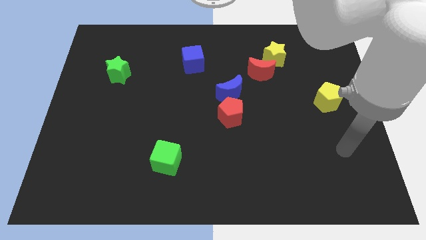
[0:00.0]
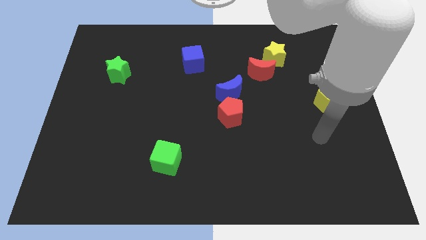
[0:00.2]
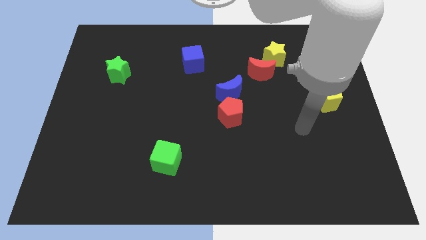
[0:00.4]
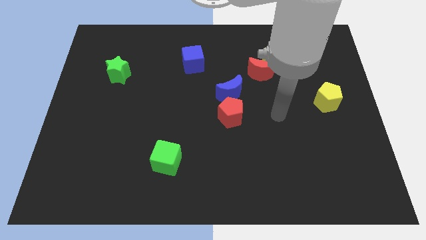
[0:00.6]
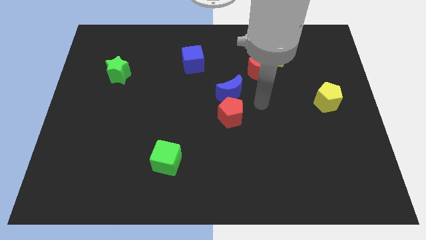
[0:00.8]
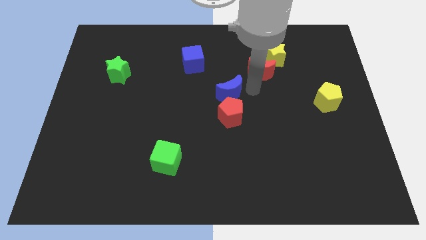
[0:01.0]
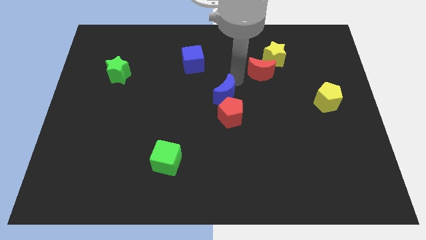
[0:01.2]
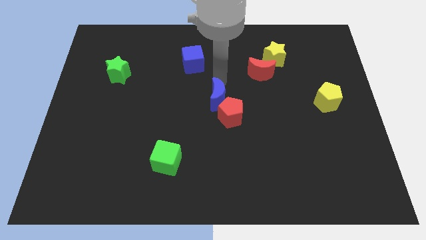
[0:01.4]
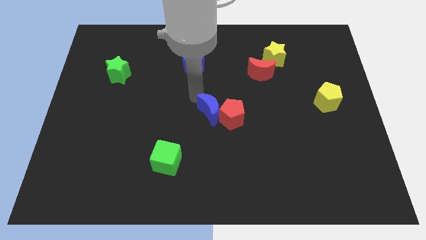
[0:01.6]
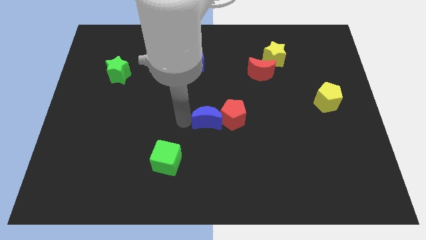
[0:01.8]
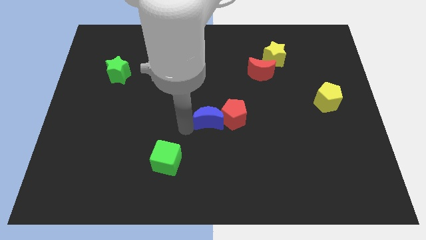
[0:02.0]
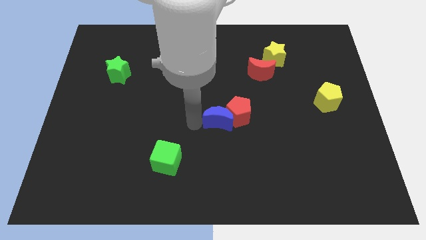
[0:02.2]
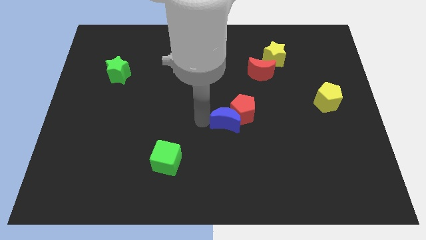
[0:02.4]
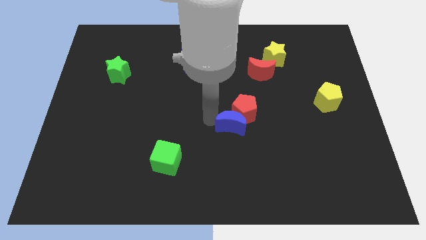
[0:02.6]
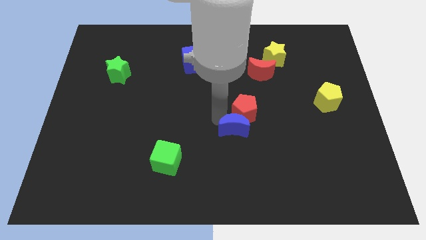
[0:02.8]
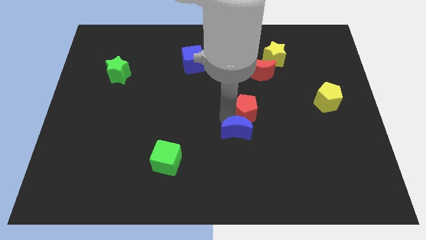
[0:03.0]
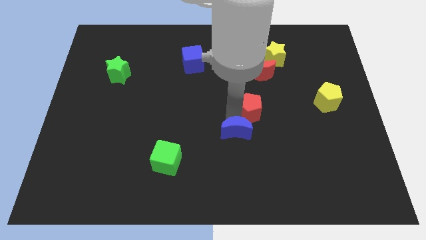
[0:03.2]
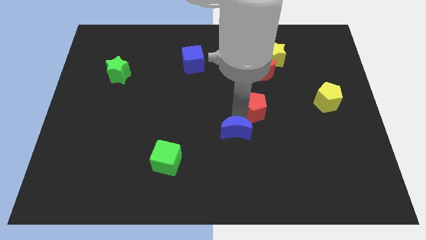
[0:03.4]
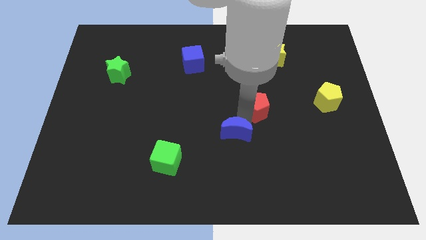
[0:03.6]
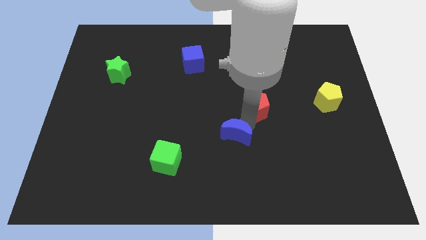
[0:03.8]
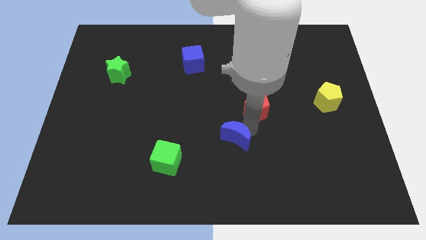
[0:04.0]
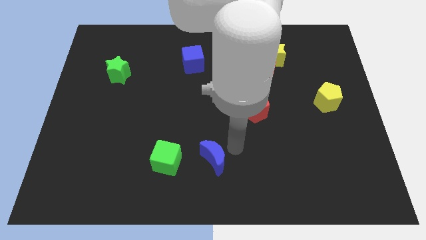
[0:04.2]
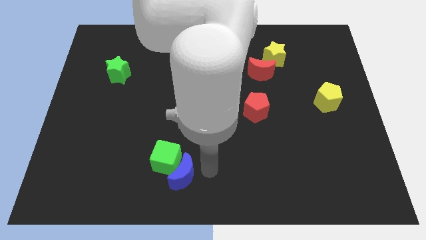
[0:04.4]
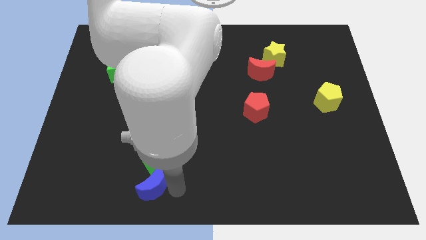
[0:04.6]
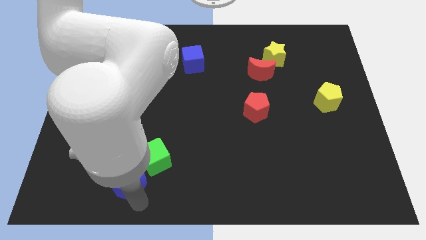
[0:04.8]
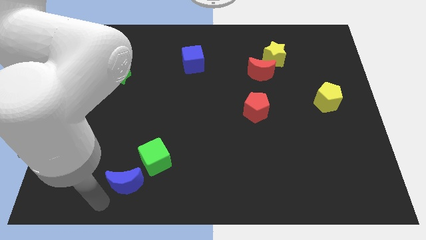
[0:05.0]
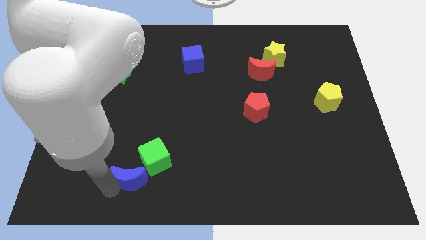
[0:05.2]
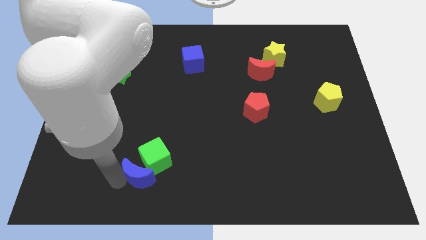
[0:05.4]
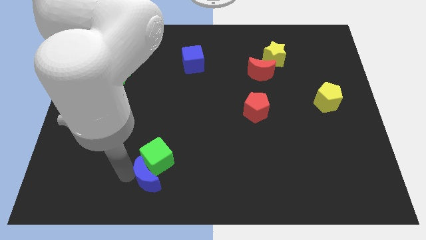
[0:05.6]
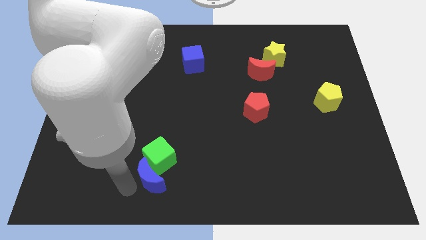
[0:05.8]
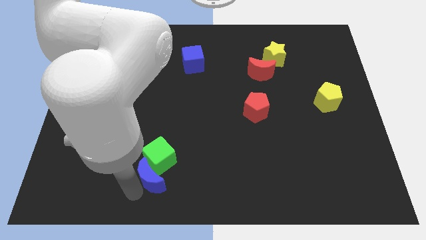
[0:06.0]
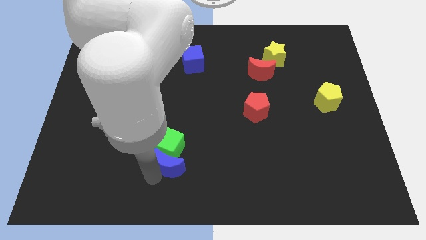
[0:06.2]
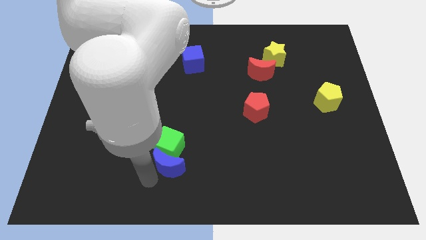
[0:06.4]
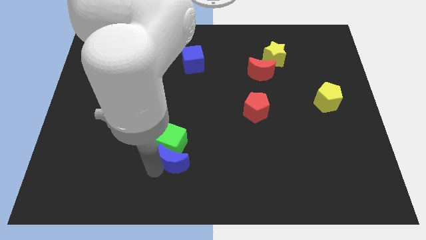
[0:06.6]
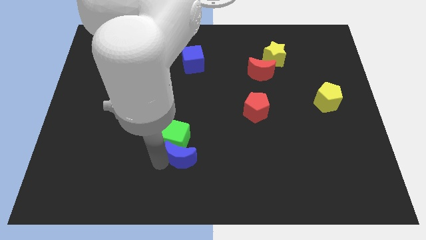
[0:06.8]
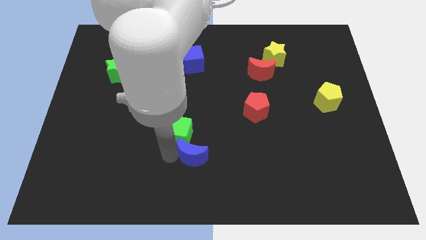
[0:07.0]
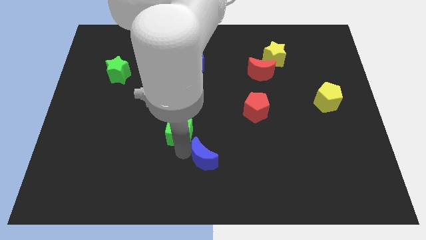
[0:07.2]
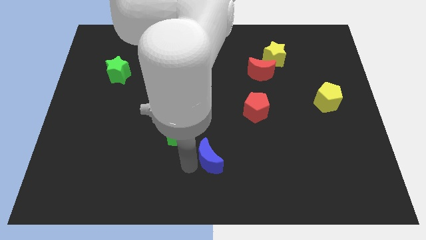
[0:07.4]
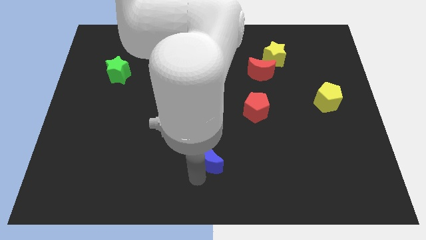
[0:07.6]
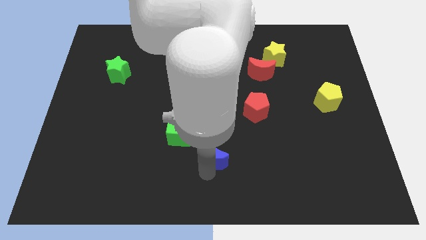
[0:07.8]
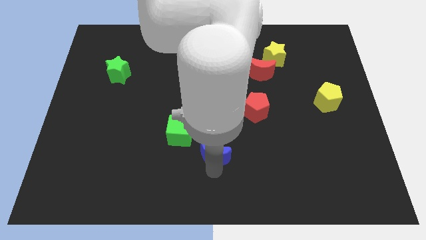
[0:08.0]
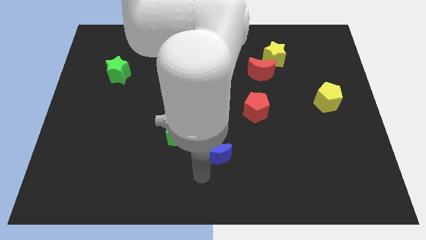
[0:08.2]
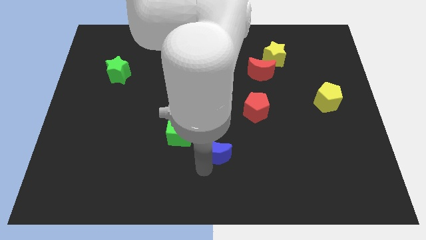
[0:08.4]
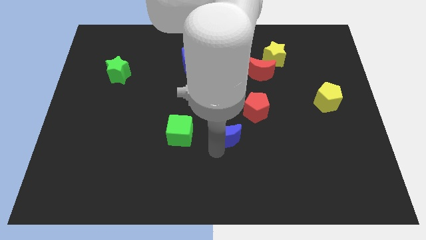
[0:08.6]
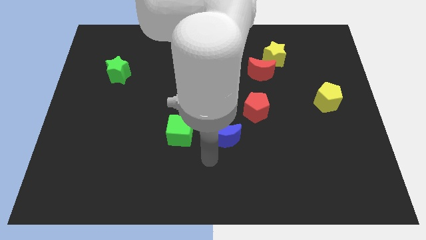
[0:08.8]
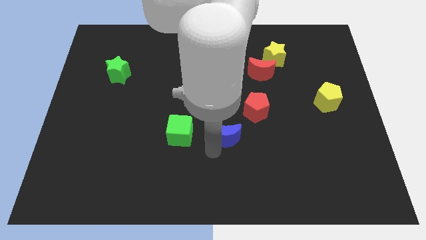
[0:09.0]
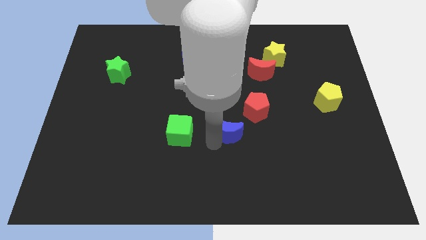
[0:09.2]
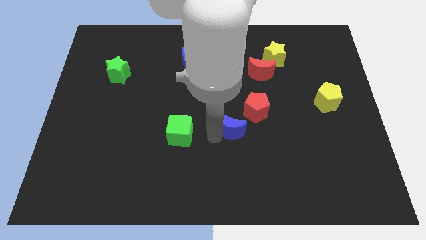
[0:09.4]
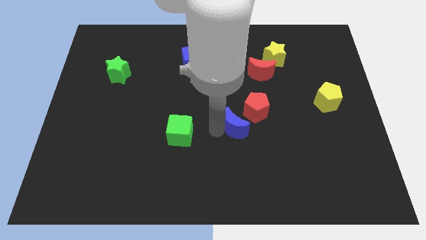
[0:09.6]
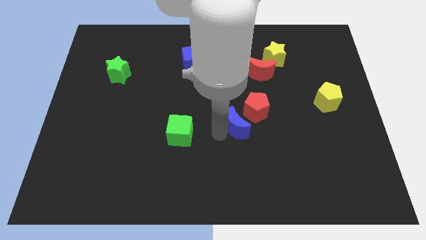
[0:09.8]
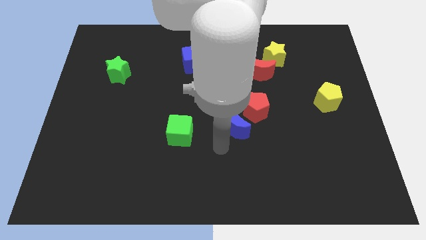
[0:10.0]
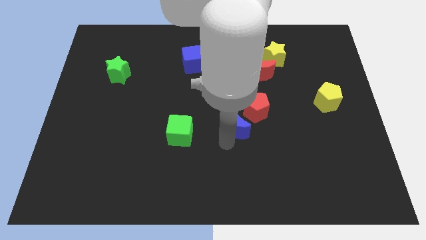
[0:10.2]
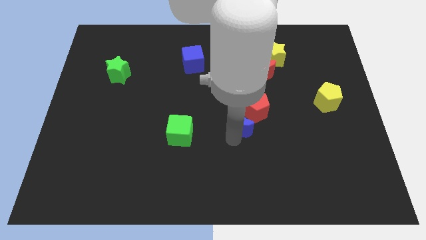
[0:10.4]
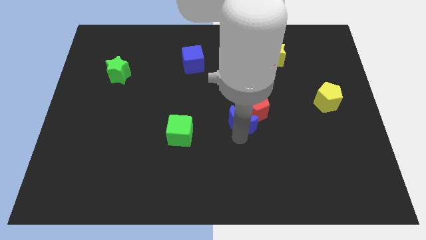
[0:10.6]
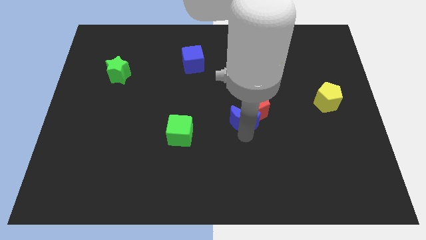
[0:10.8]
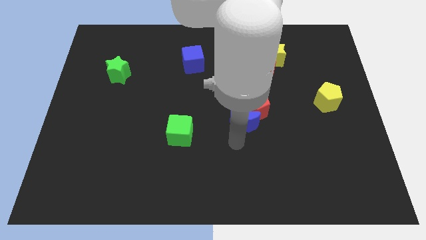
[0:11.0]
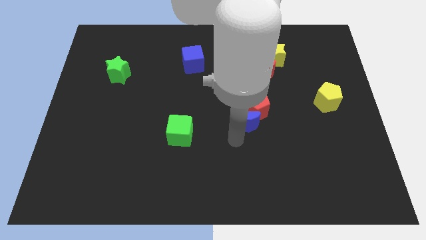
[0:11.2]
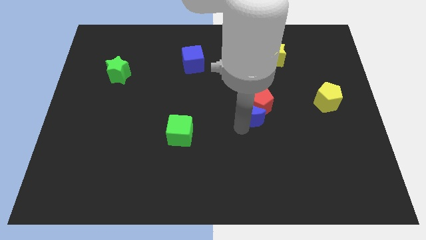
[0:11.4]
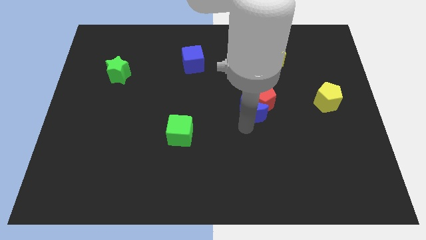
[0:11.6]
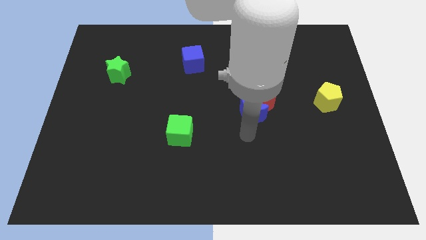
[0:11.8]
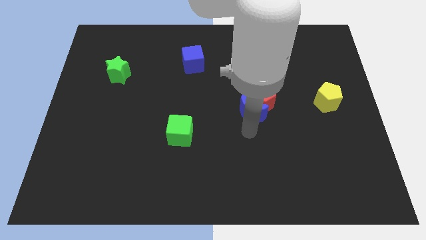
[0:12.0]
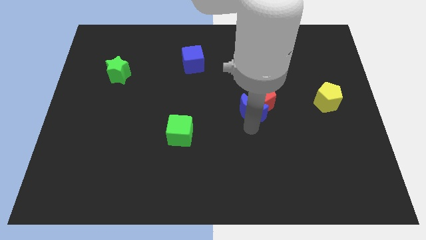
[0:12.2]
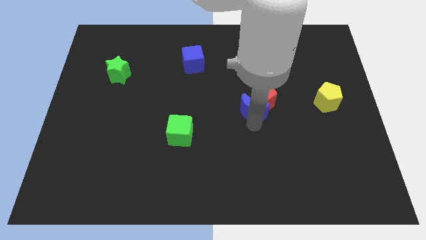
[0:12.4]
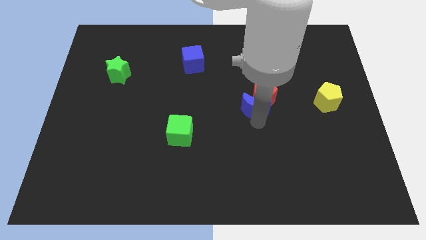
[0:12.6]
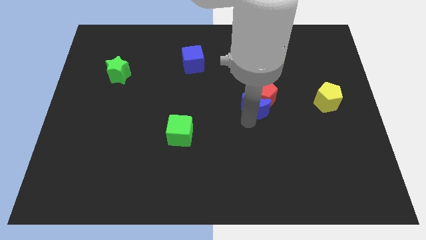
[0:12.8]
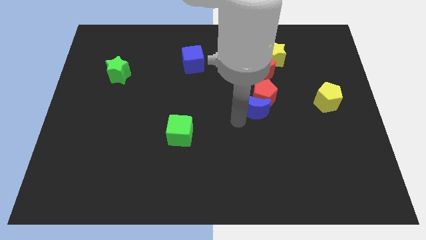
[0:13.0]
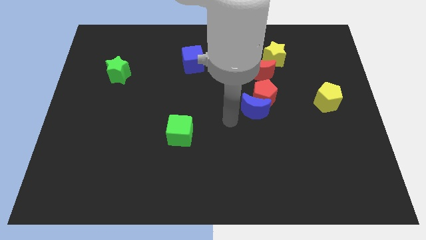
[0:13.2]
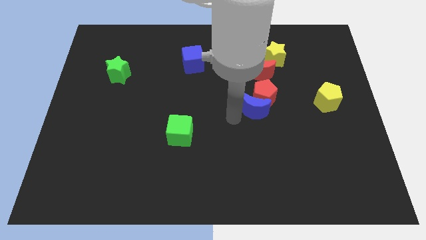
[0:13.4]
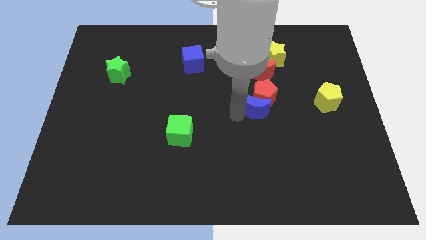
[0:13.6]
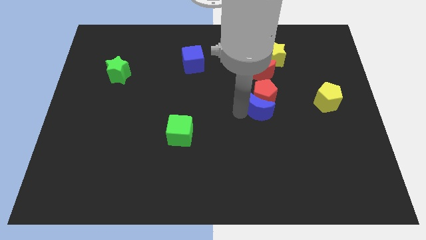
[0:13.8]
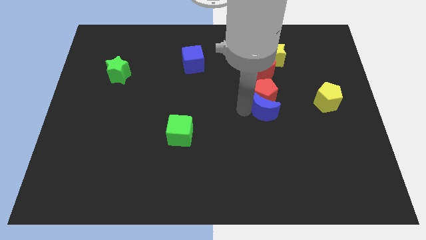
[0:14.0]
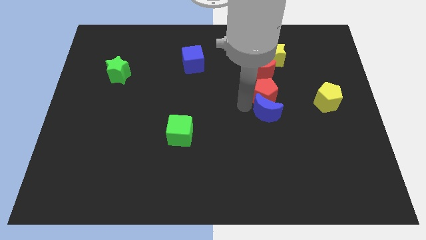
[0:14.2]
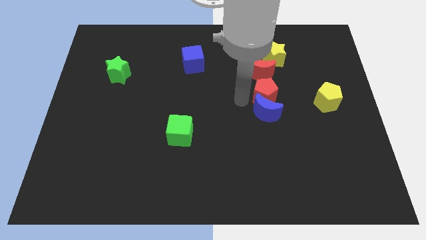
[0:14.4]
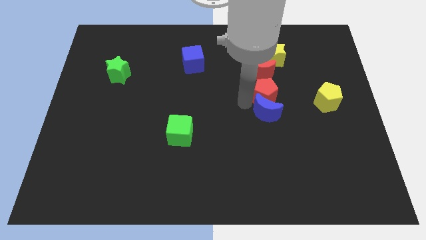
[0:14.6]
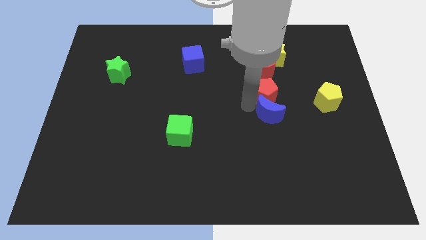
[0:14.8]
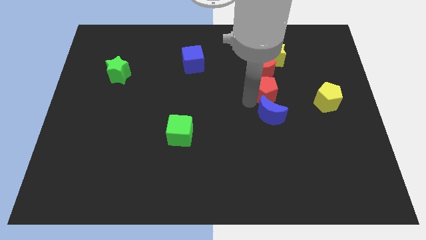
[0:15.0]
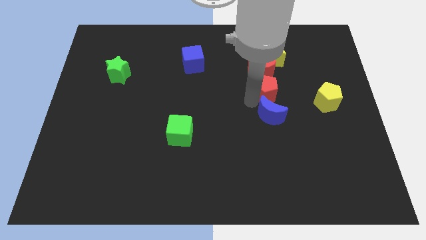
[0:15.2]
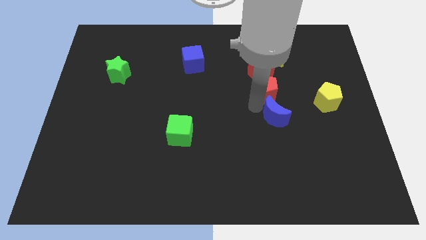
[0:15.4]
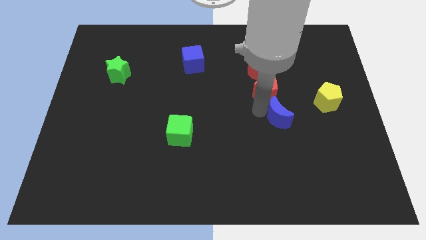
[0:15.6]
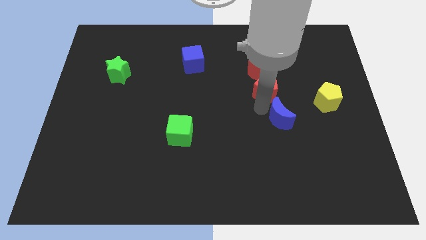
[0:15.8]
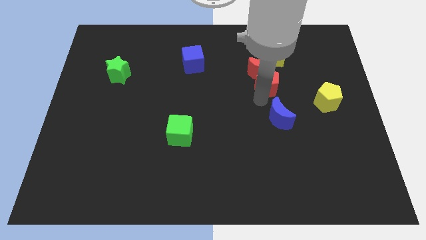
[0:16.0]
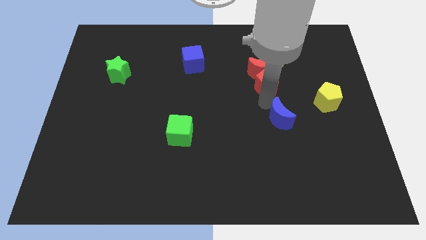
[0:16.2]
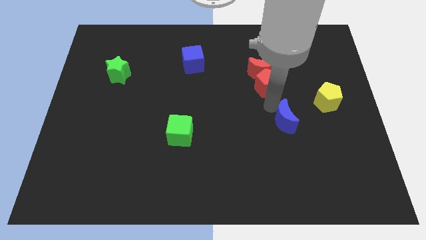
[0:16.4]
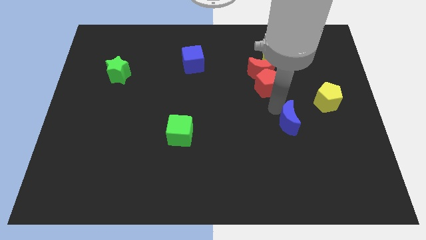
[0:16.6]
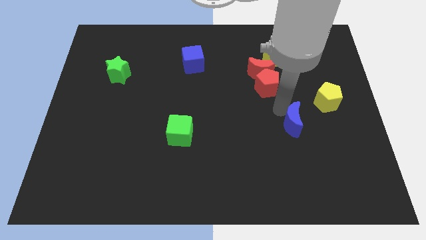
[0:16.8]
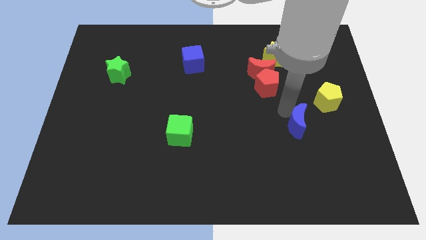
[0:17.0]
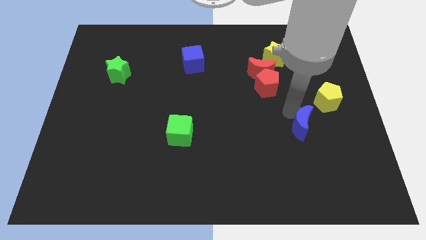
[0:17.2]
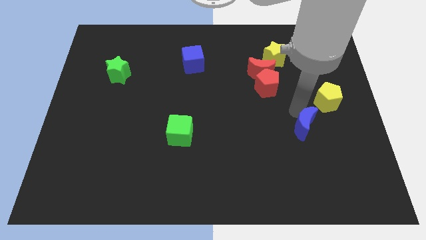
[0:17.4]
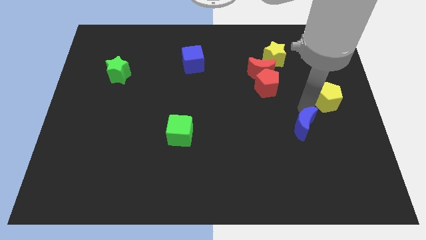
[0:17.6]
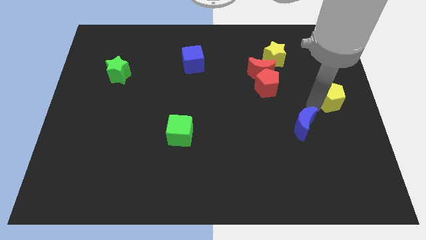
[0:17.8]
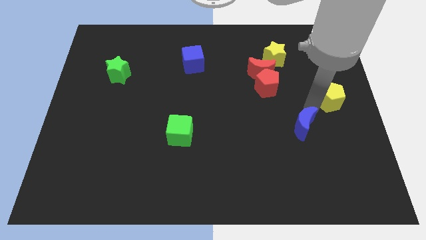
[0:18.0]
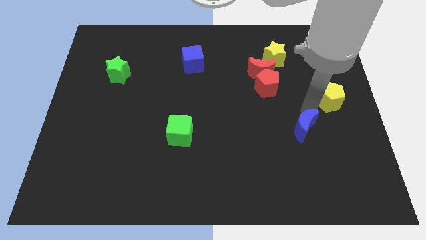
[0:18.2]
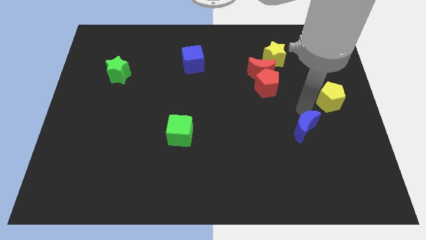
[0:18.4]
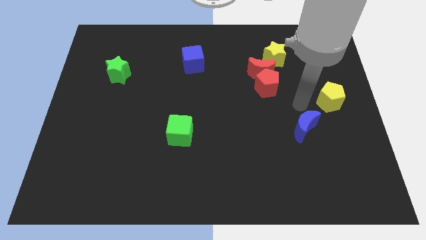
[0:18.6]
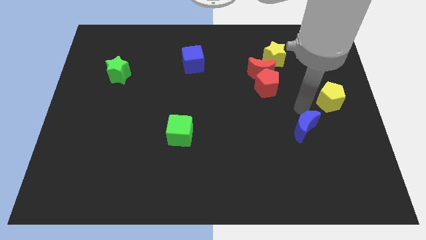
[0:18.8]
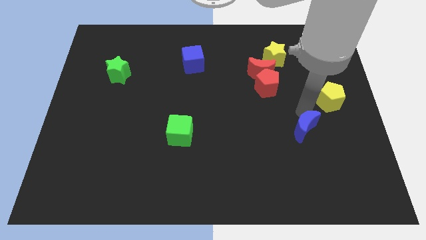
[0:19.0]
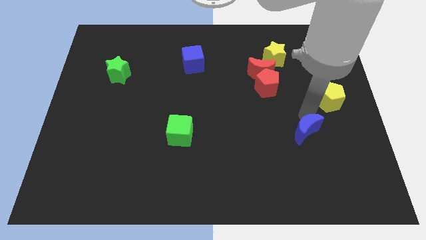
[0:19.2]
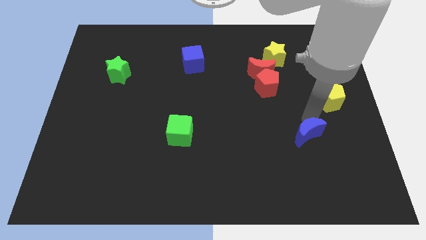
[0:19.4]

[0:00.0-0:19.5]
push the blue moon diagonally downwards and right
